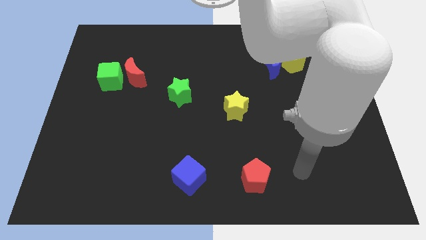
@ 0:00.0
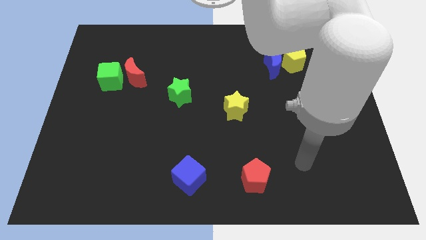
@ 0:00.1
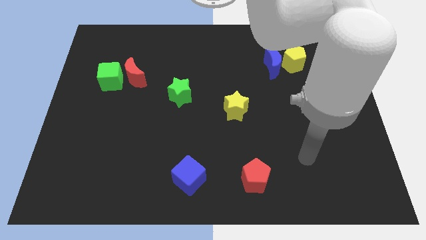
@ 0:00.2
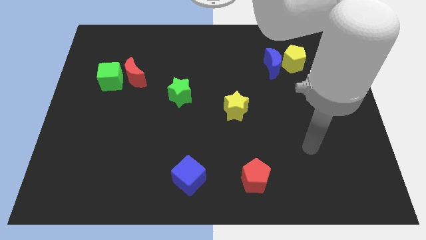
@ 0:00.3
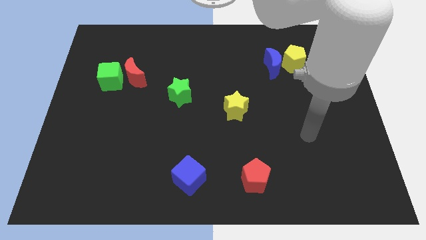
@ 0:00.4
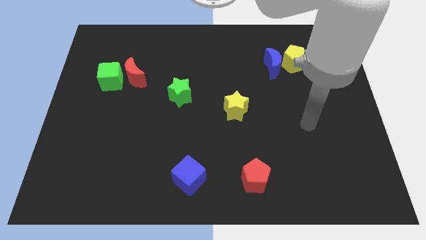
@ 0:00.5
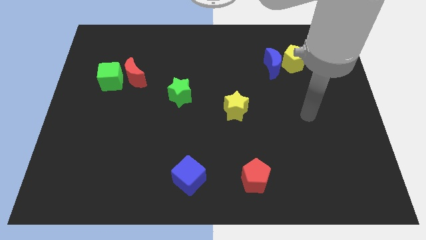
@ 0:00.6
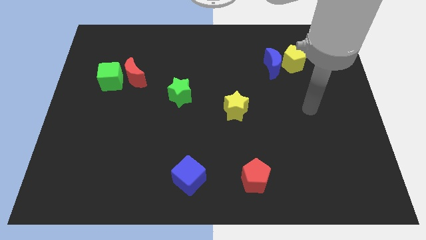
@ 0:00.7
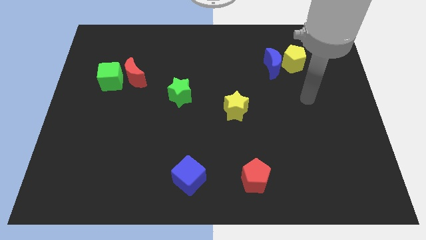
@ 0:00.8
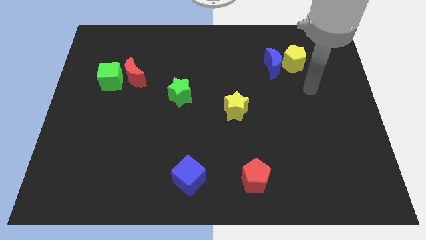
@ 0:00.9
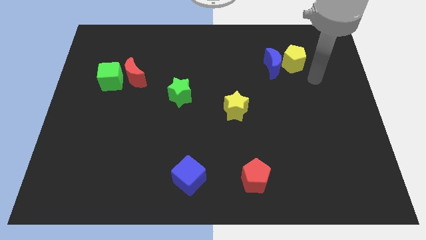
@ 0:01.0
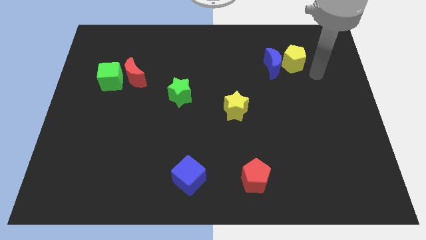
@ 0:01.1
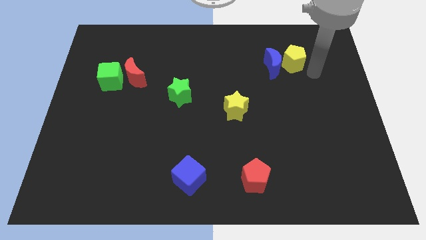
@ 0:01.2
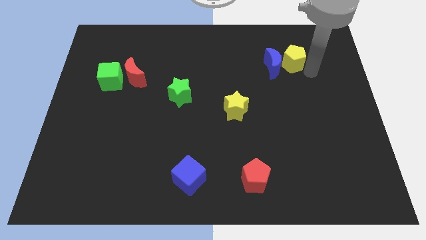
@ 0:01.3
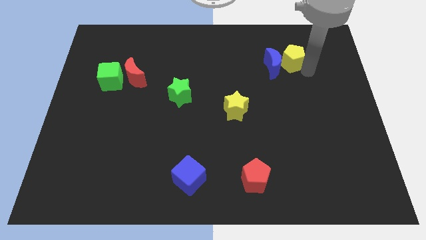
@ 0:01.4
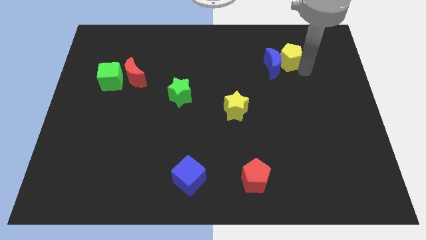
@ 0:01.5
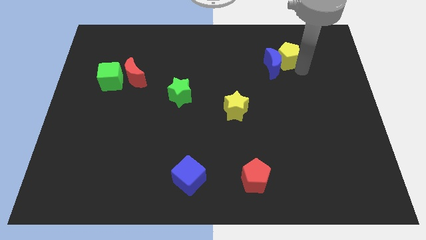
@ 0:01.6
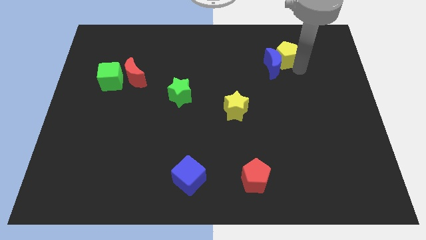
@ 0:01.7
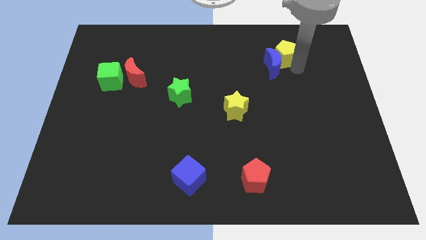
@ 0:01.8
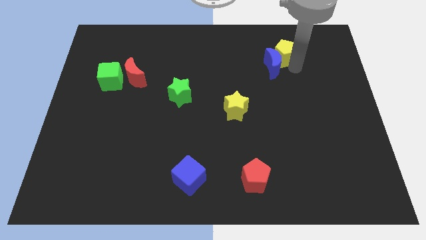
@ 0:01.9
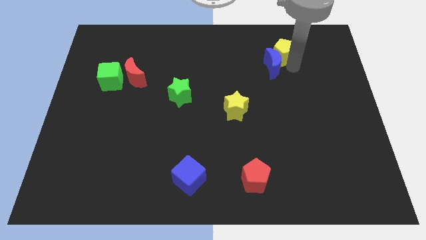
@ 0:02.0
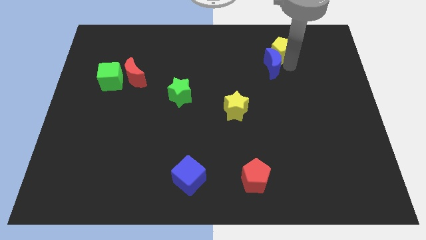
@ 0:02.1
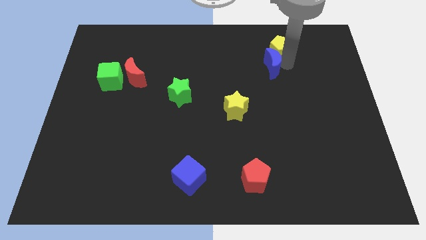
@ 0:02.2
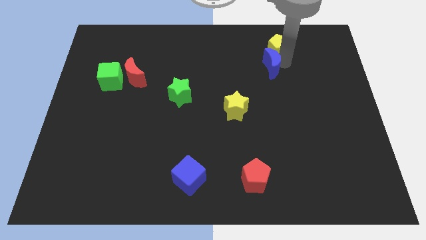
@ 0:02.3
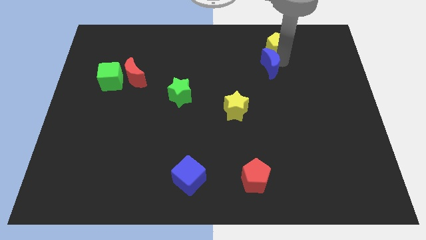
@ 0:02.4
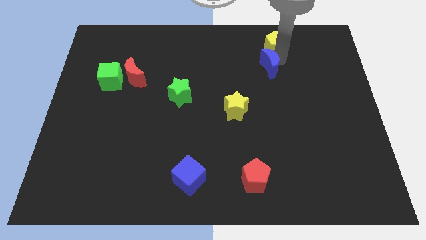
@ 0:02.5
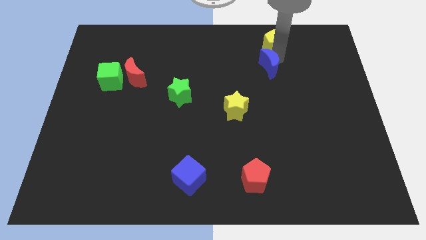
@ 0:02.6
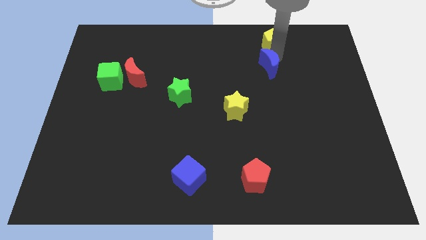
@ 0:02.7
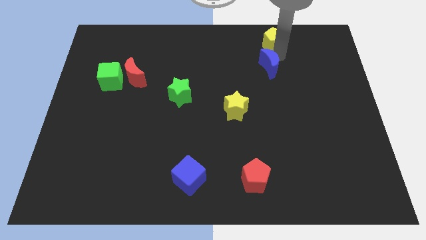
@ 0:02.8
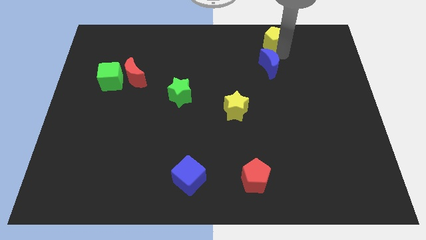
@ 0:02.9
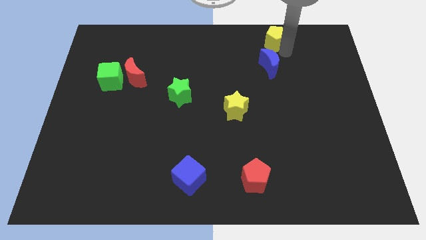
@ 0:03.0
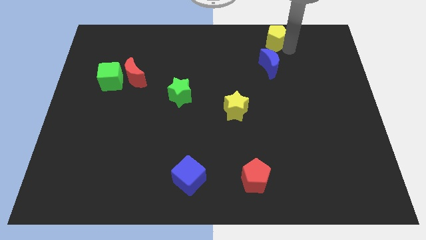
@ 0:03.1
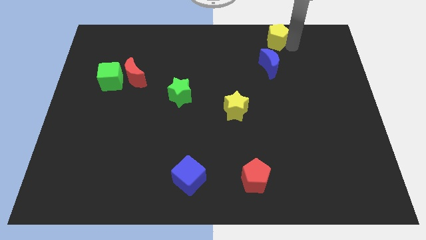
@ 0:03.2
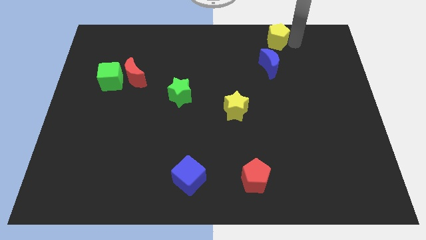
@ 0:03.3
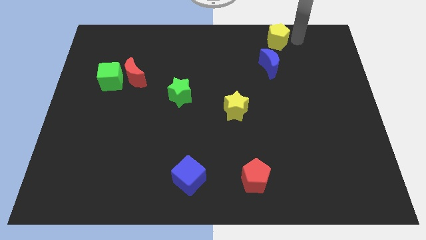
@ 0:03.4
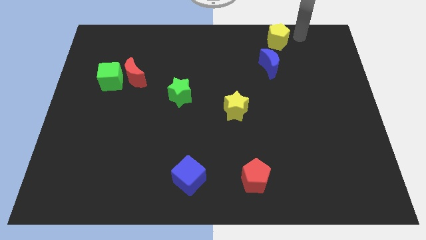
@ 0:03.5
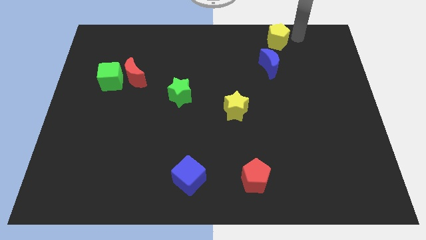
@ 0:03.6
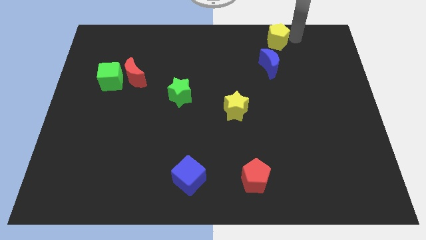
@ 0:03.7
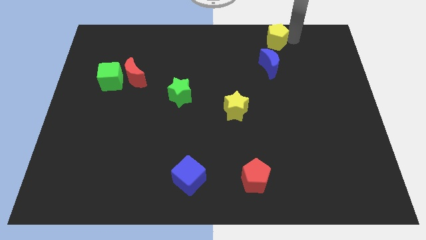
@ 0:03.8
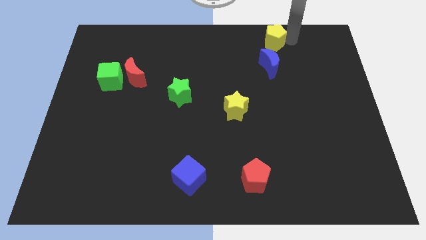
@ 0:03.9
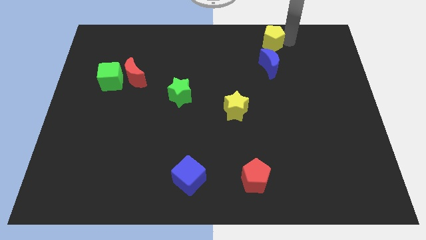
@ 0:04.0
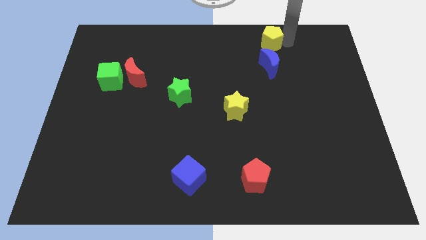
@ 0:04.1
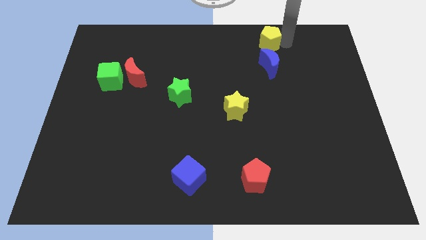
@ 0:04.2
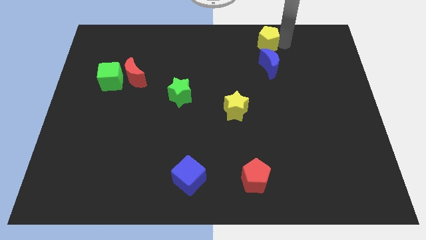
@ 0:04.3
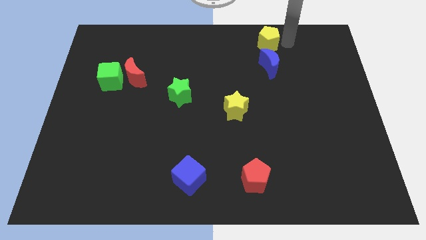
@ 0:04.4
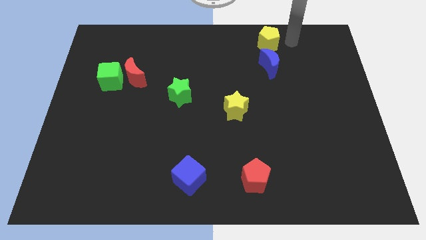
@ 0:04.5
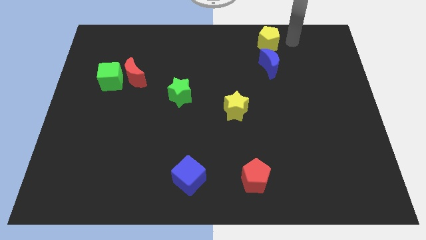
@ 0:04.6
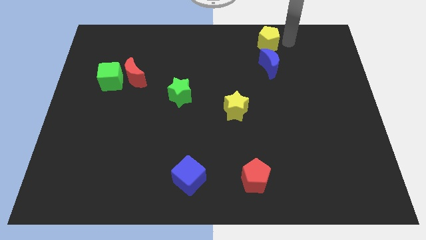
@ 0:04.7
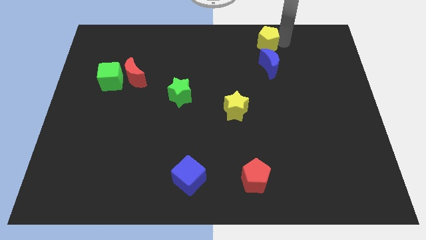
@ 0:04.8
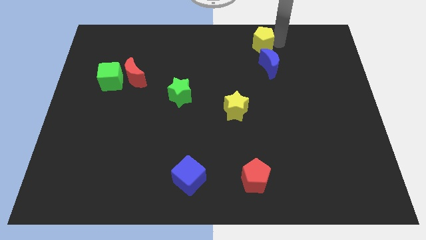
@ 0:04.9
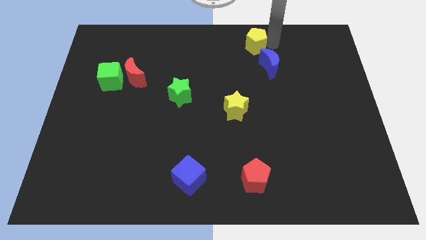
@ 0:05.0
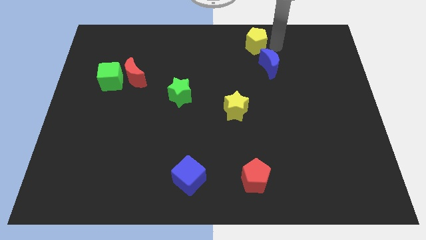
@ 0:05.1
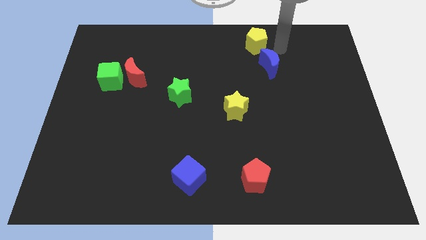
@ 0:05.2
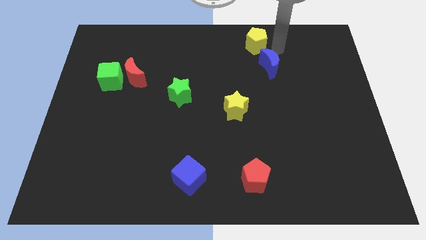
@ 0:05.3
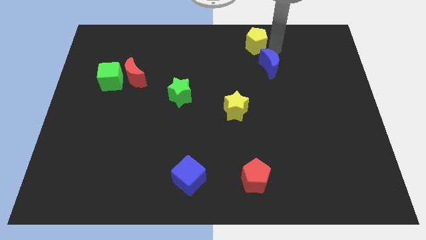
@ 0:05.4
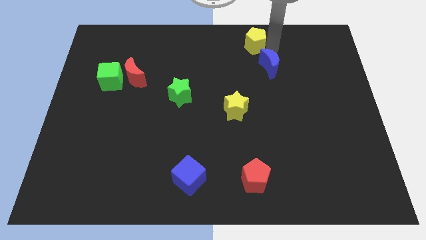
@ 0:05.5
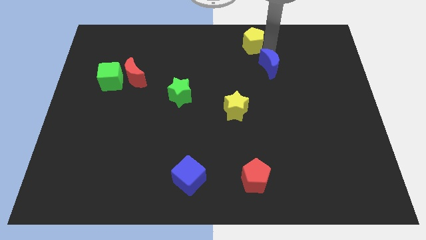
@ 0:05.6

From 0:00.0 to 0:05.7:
move the yellow pentagon to the towards your base

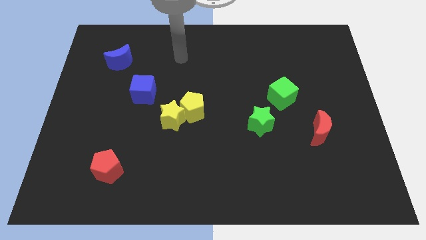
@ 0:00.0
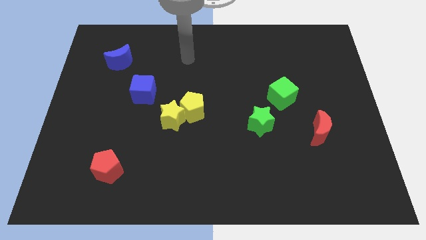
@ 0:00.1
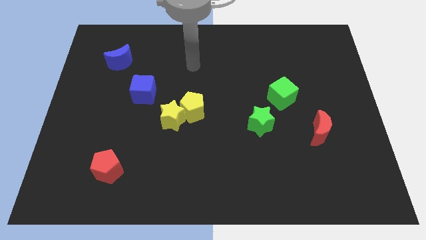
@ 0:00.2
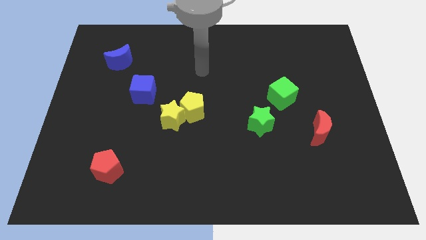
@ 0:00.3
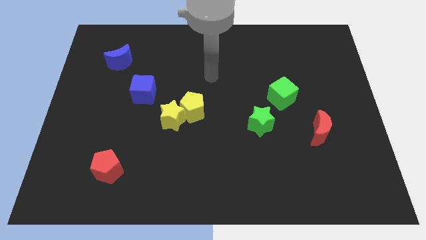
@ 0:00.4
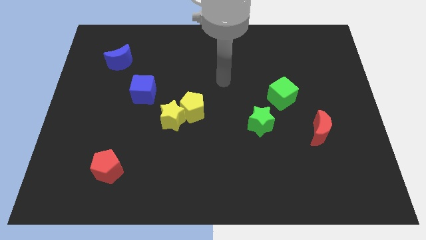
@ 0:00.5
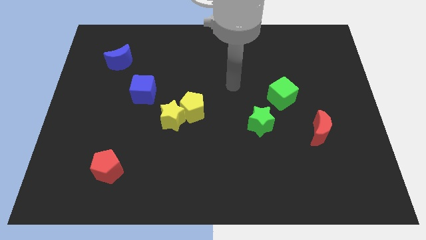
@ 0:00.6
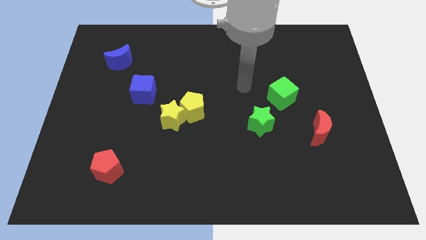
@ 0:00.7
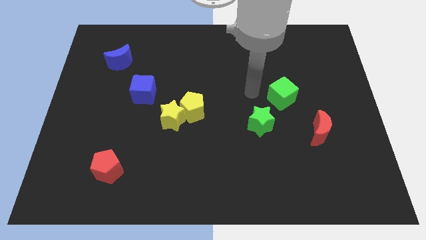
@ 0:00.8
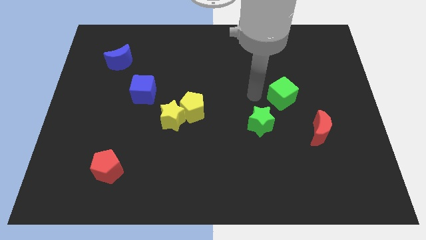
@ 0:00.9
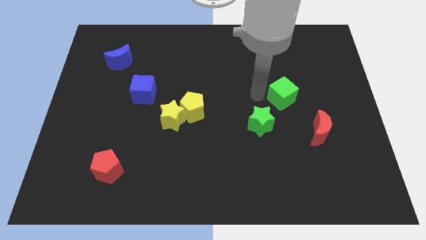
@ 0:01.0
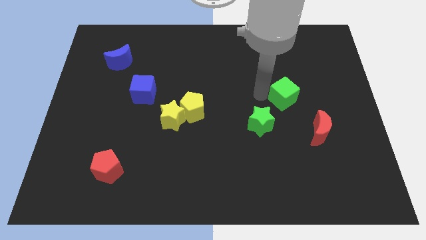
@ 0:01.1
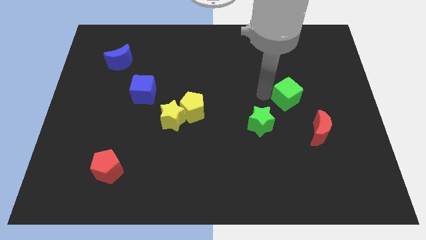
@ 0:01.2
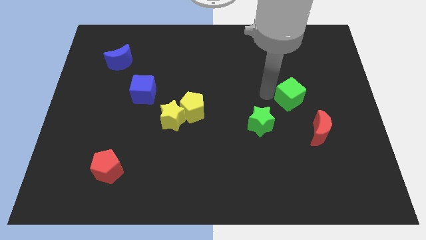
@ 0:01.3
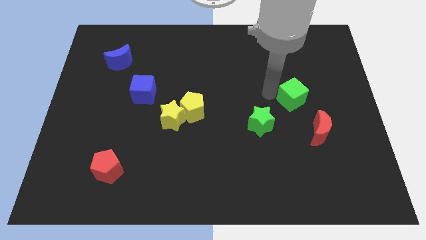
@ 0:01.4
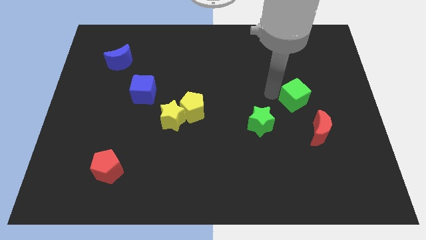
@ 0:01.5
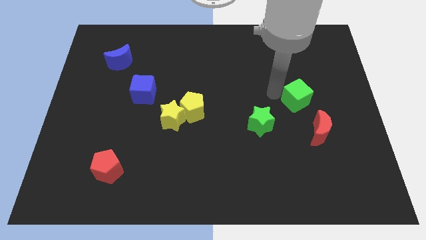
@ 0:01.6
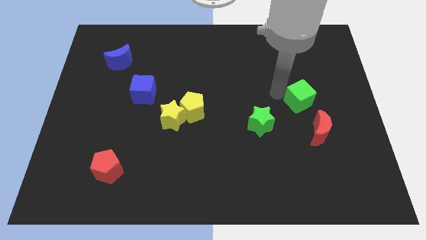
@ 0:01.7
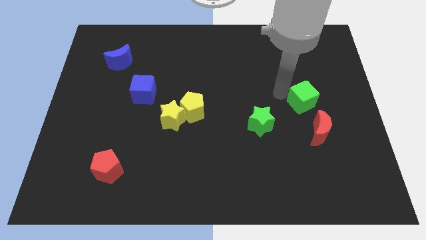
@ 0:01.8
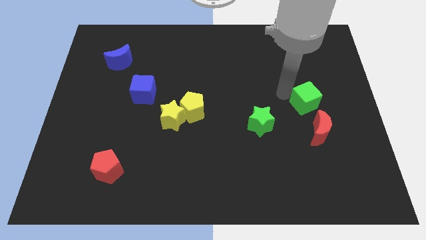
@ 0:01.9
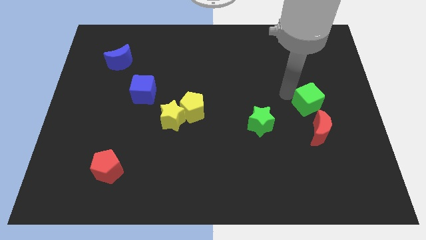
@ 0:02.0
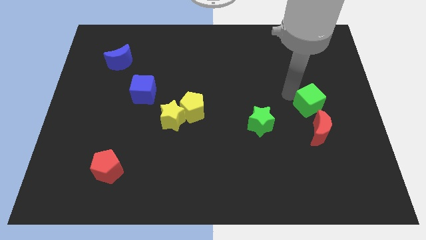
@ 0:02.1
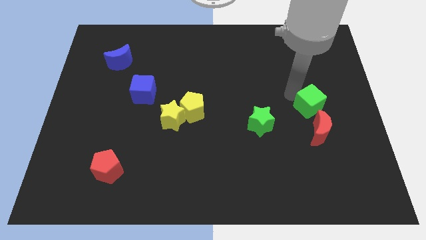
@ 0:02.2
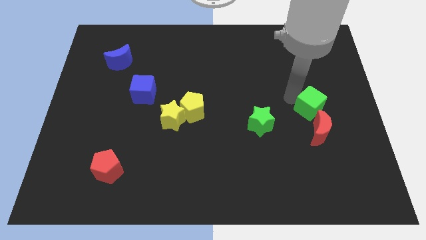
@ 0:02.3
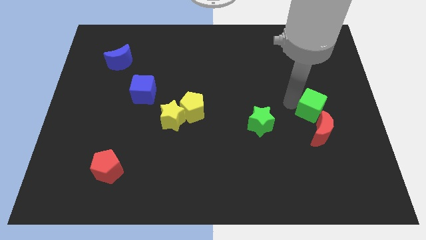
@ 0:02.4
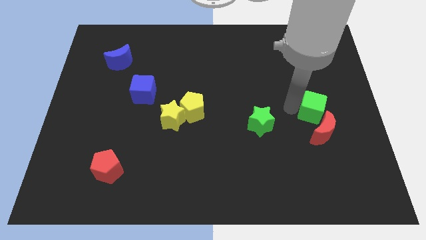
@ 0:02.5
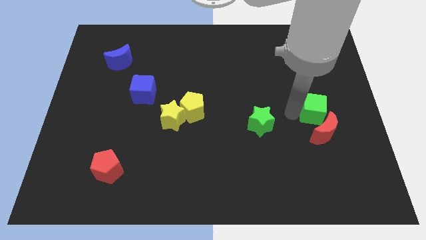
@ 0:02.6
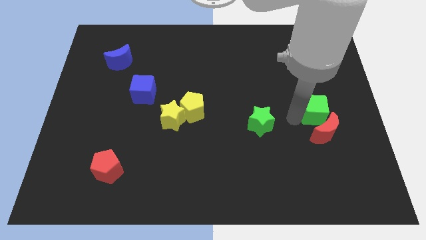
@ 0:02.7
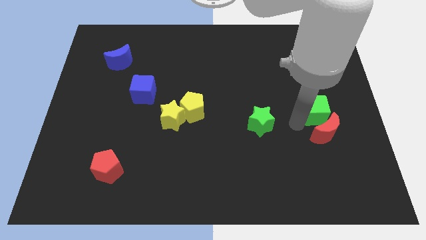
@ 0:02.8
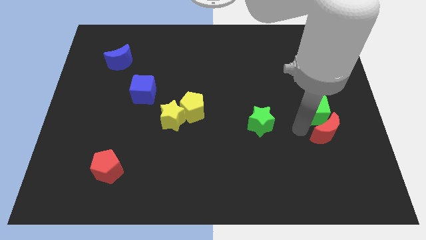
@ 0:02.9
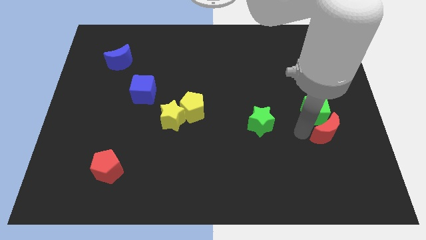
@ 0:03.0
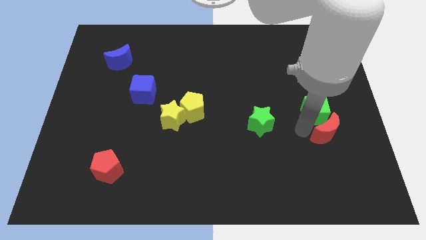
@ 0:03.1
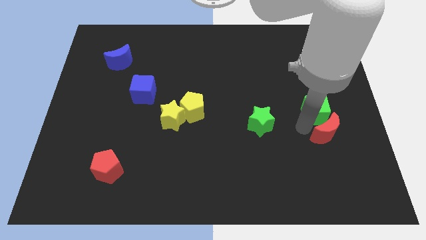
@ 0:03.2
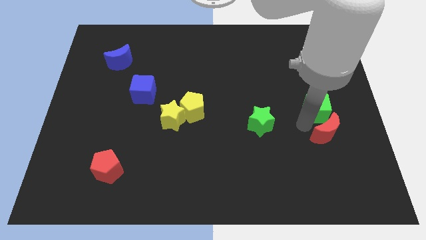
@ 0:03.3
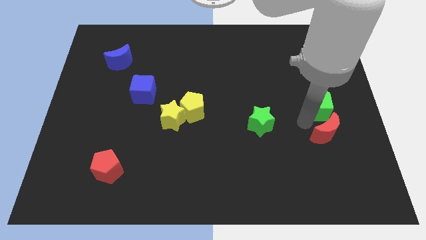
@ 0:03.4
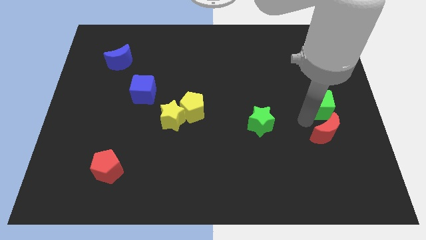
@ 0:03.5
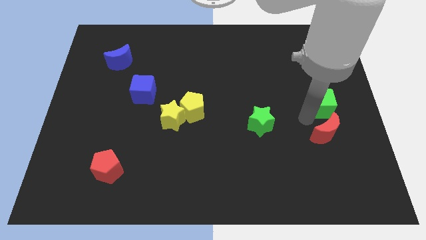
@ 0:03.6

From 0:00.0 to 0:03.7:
push the green cube to the right side of the board
